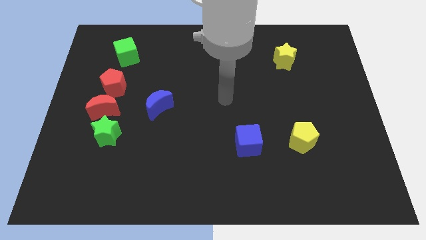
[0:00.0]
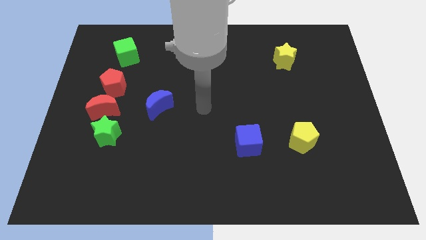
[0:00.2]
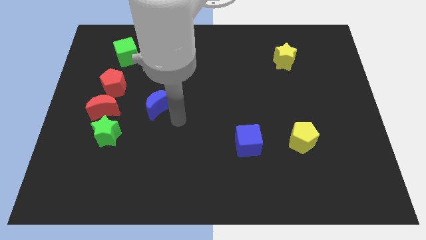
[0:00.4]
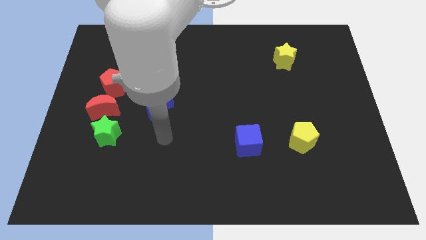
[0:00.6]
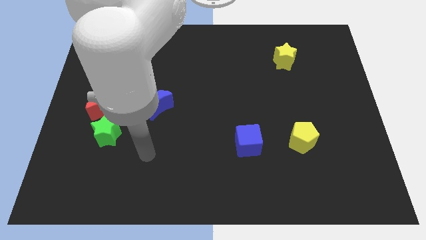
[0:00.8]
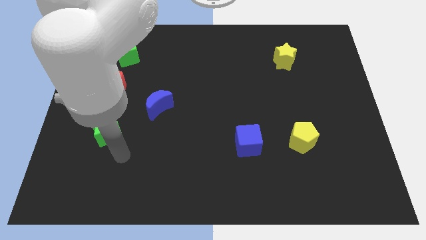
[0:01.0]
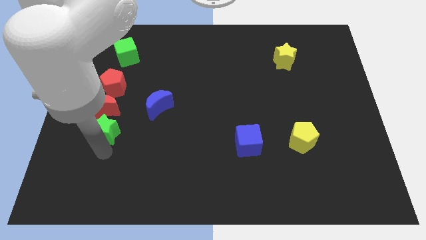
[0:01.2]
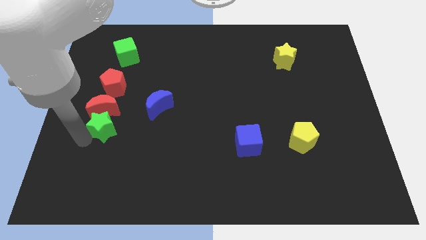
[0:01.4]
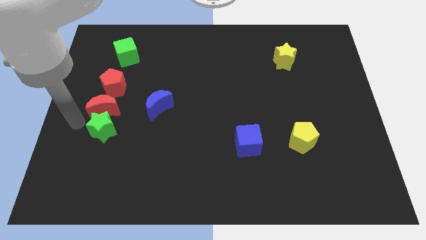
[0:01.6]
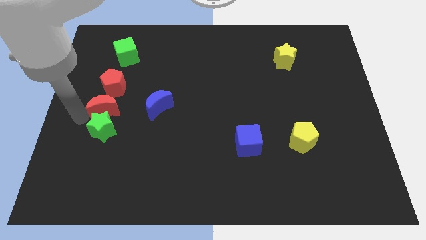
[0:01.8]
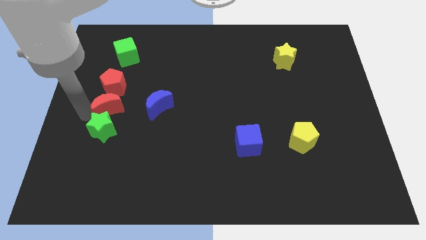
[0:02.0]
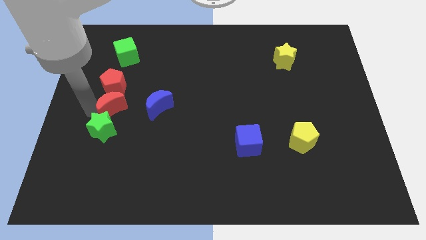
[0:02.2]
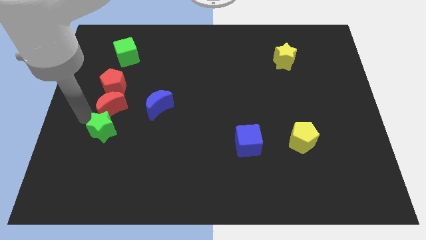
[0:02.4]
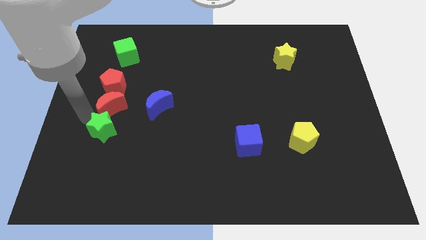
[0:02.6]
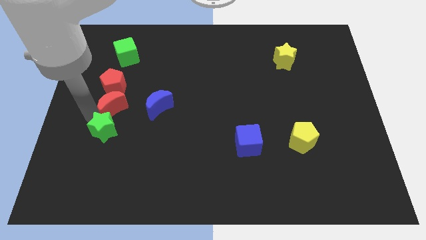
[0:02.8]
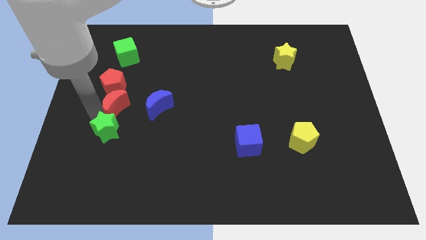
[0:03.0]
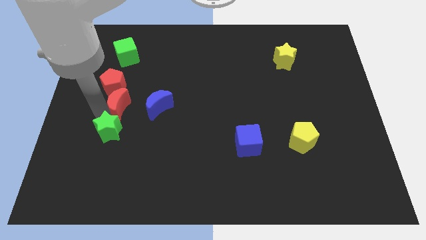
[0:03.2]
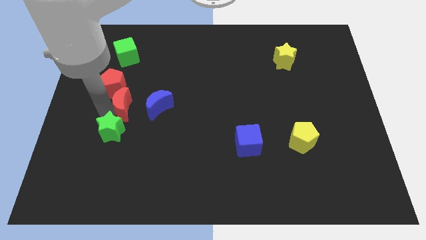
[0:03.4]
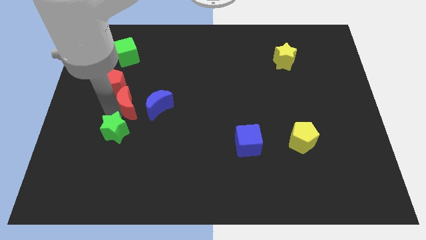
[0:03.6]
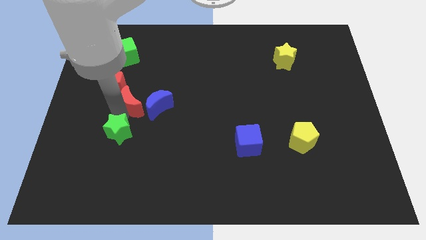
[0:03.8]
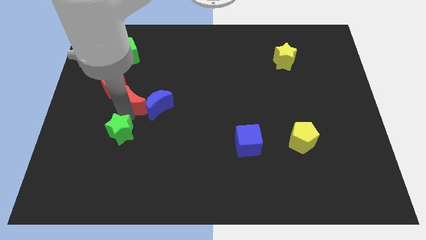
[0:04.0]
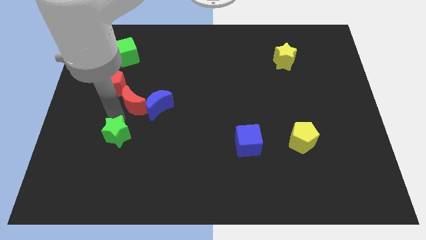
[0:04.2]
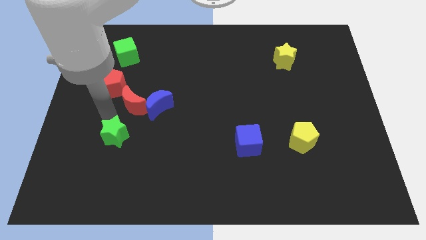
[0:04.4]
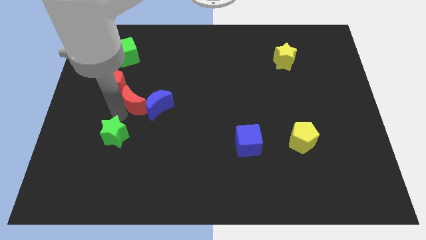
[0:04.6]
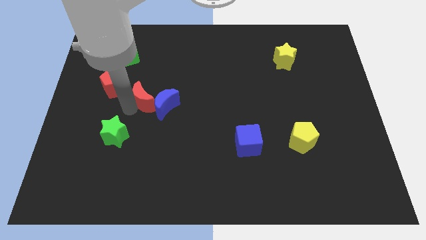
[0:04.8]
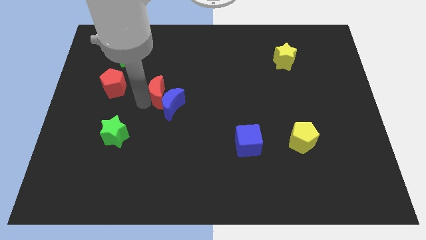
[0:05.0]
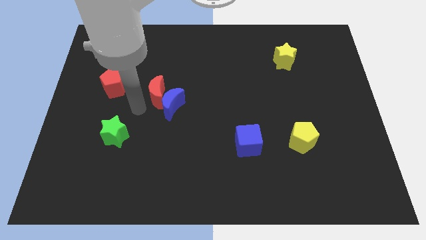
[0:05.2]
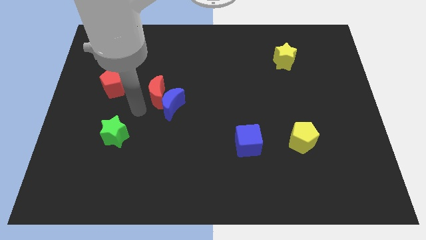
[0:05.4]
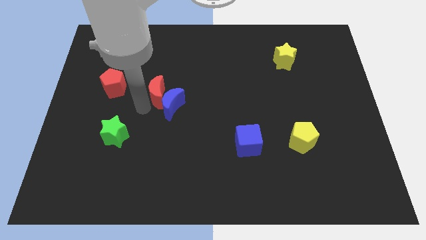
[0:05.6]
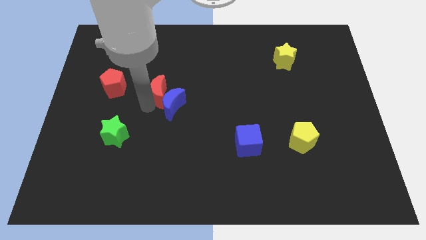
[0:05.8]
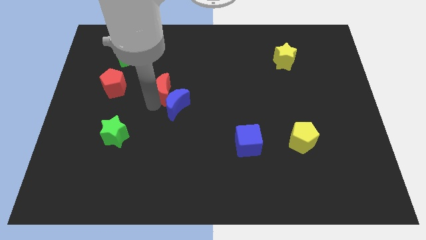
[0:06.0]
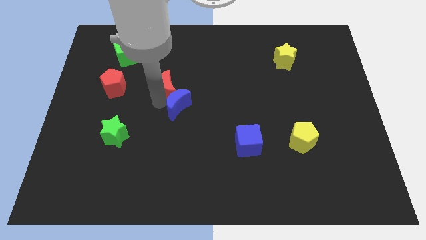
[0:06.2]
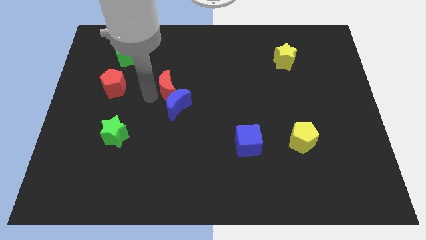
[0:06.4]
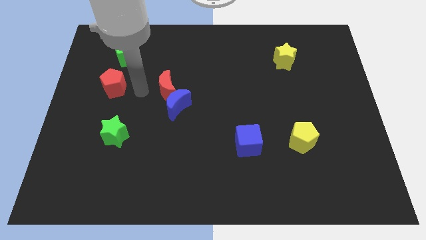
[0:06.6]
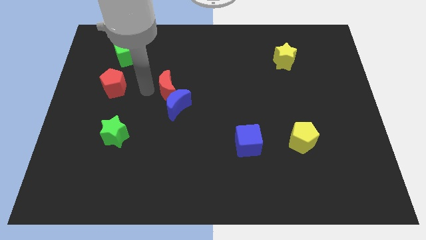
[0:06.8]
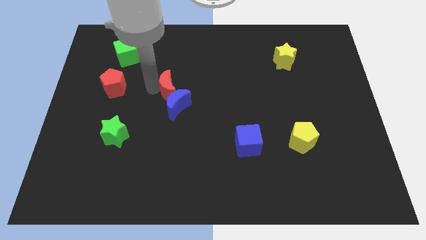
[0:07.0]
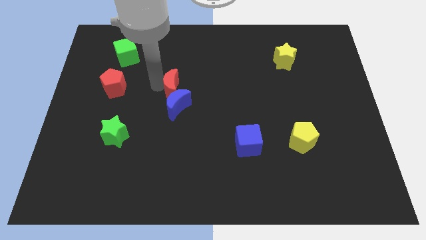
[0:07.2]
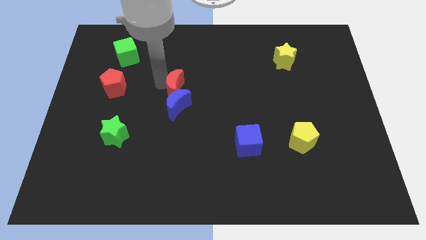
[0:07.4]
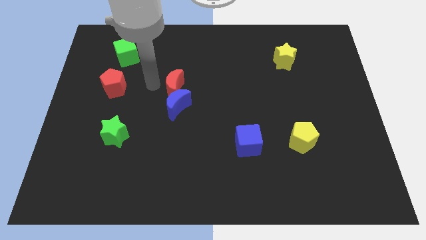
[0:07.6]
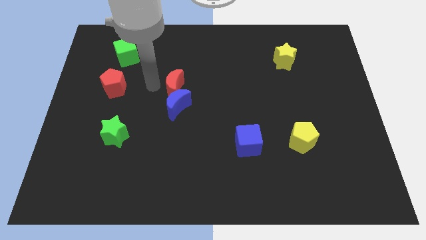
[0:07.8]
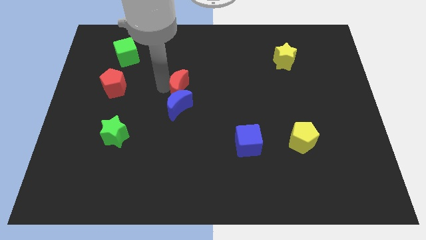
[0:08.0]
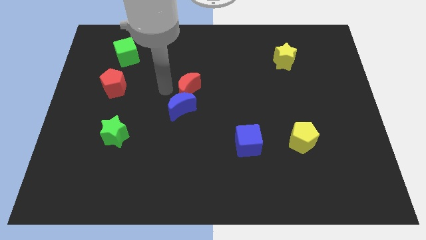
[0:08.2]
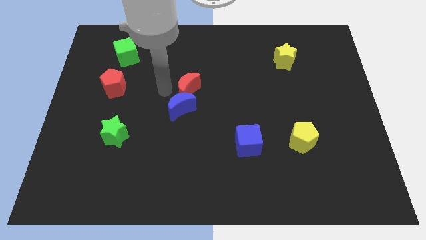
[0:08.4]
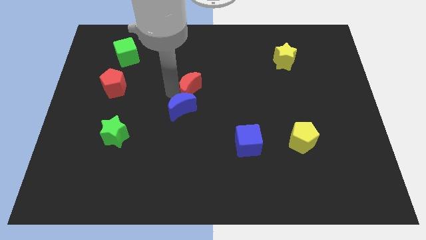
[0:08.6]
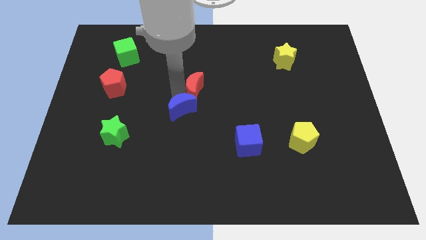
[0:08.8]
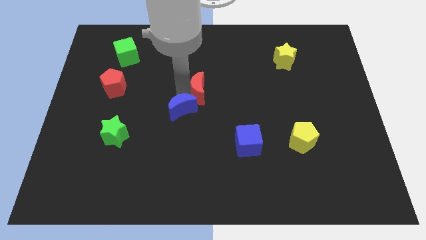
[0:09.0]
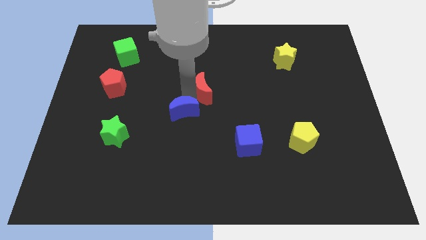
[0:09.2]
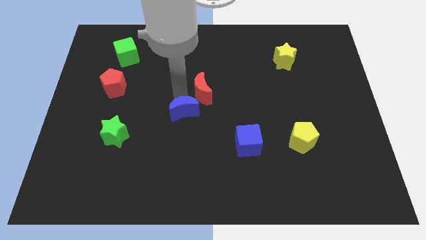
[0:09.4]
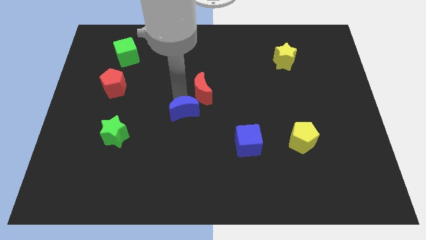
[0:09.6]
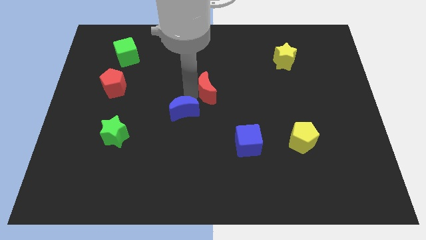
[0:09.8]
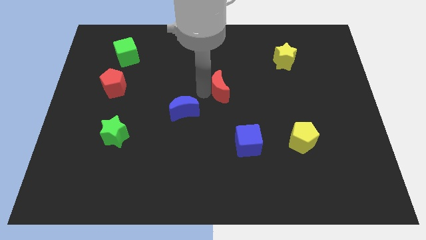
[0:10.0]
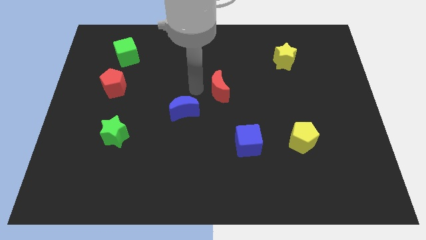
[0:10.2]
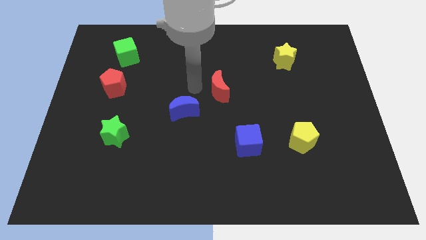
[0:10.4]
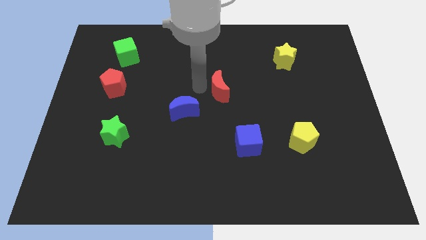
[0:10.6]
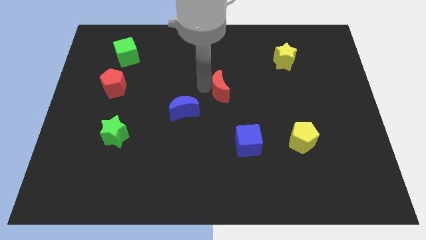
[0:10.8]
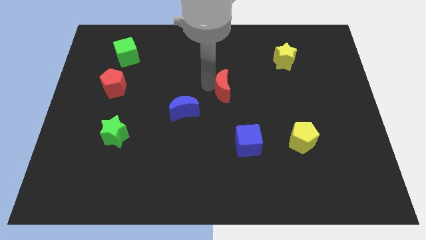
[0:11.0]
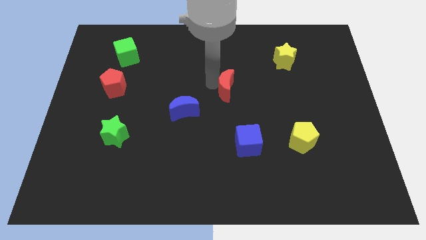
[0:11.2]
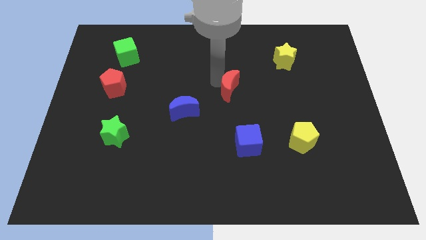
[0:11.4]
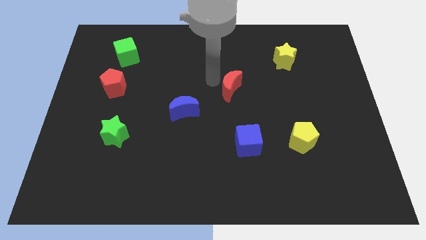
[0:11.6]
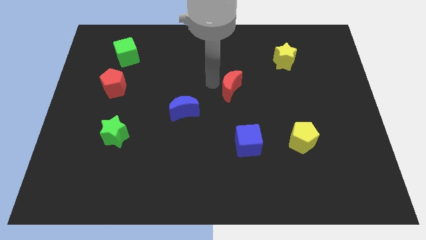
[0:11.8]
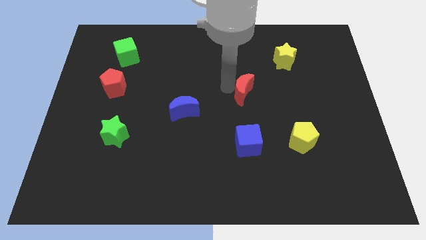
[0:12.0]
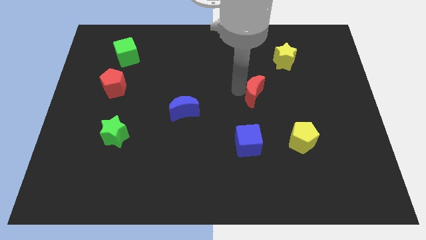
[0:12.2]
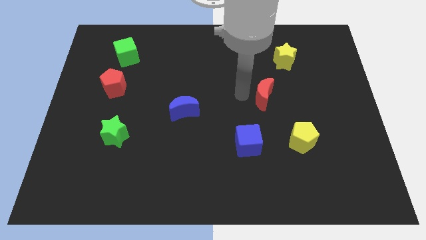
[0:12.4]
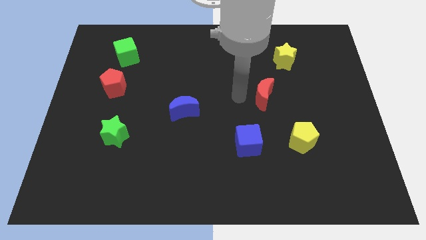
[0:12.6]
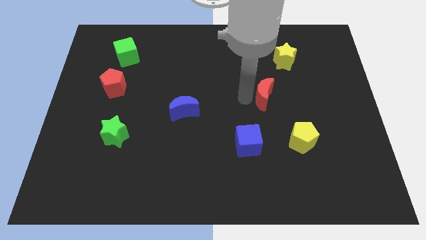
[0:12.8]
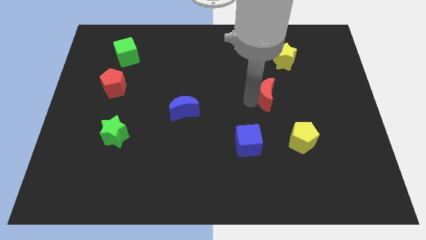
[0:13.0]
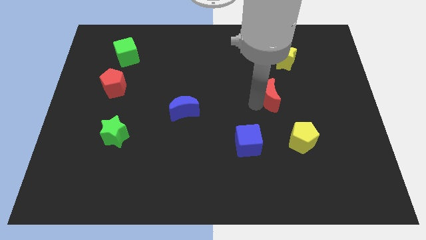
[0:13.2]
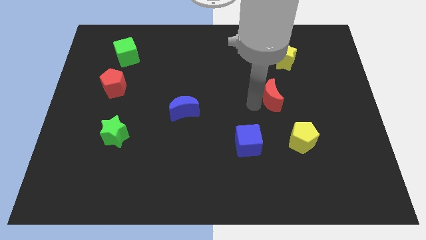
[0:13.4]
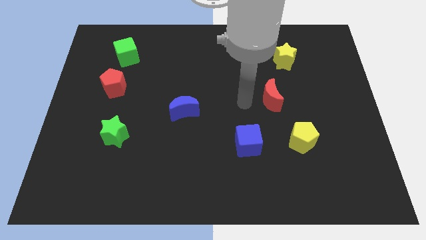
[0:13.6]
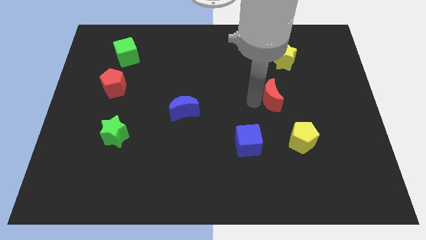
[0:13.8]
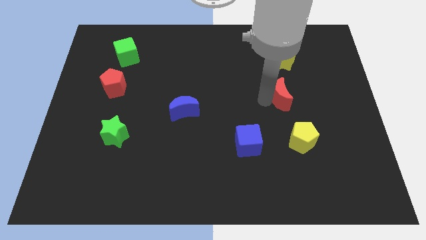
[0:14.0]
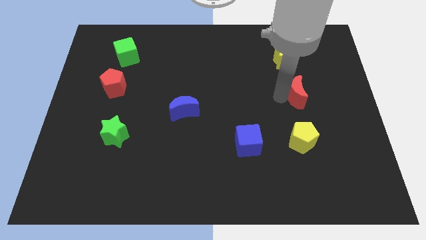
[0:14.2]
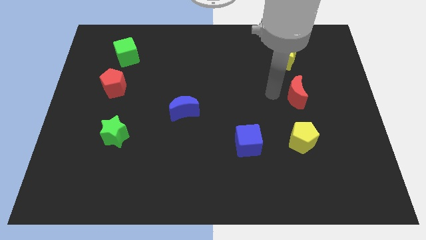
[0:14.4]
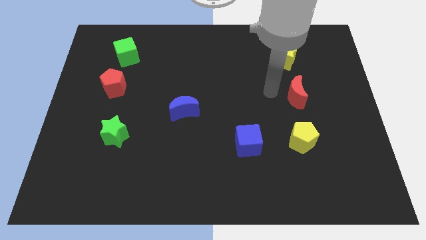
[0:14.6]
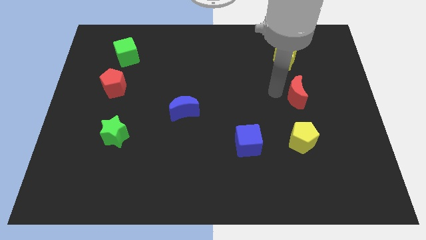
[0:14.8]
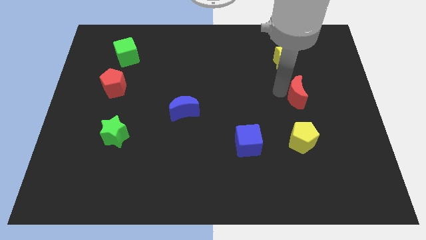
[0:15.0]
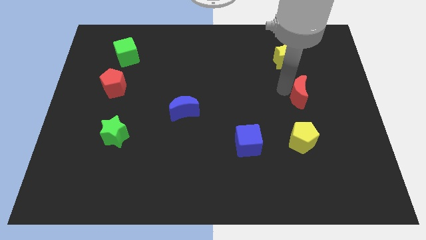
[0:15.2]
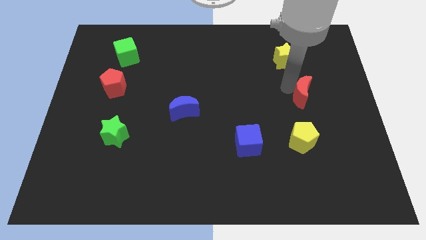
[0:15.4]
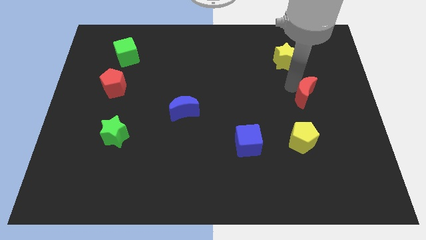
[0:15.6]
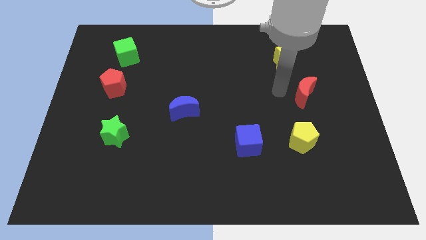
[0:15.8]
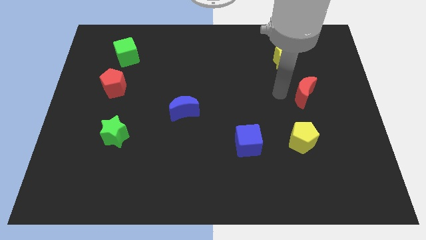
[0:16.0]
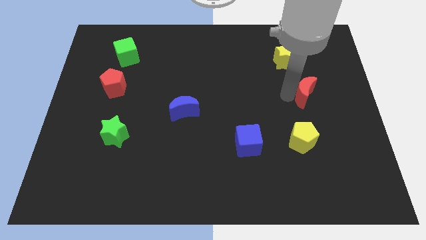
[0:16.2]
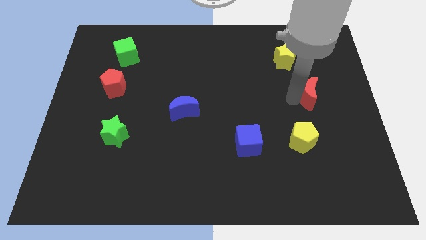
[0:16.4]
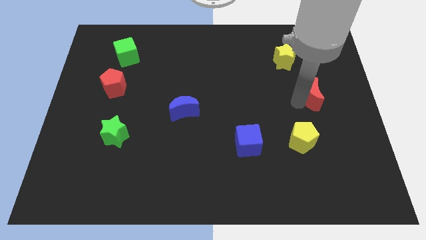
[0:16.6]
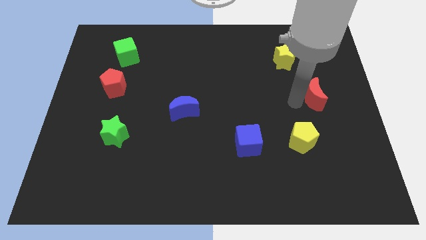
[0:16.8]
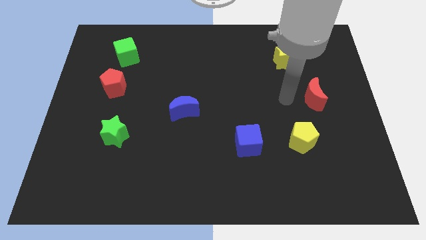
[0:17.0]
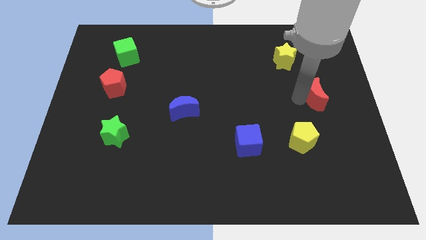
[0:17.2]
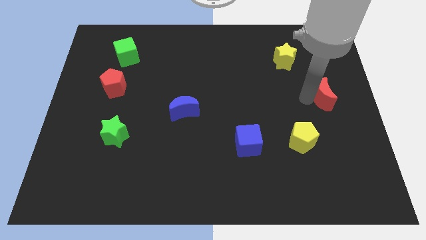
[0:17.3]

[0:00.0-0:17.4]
push the red moon to the right side
